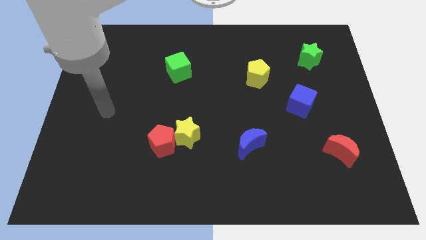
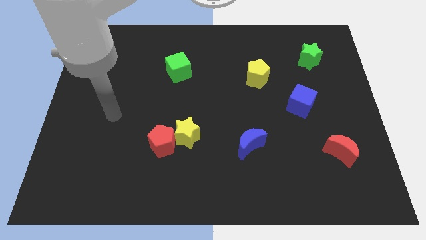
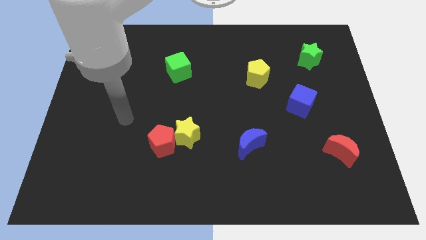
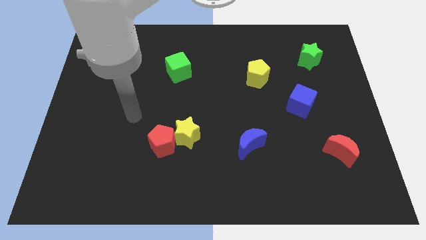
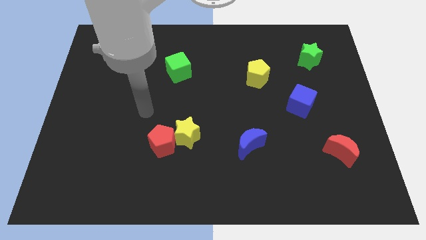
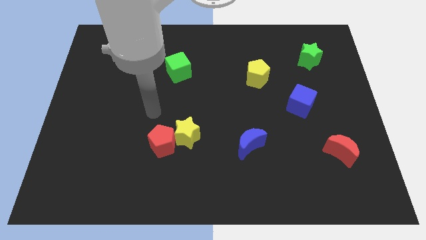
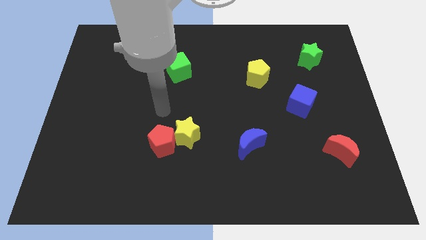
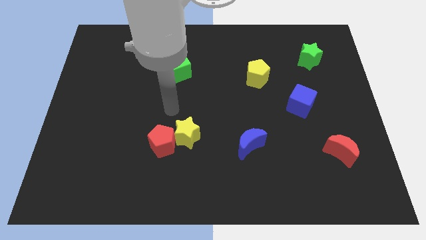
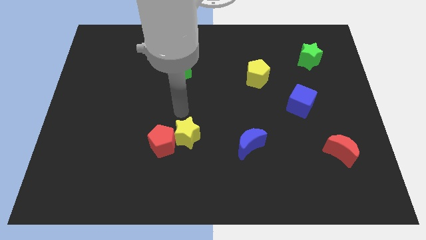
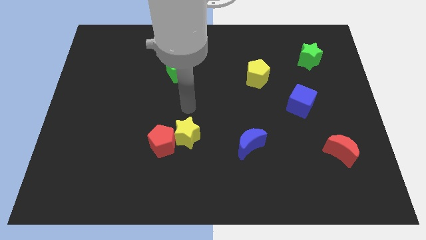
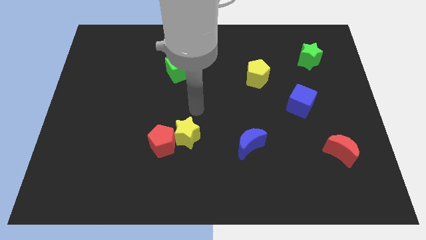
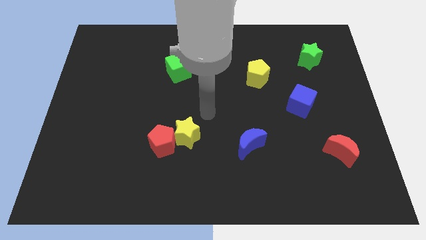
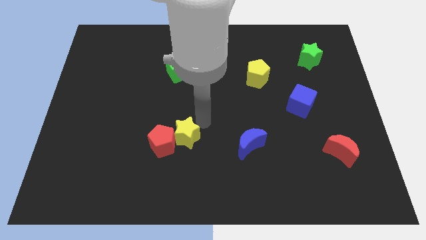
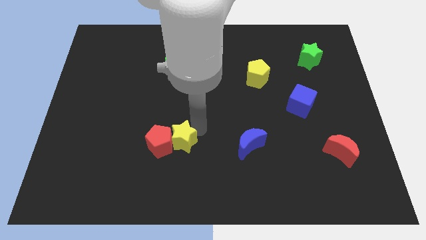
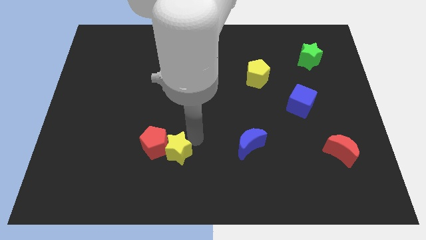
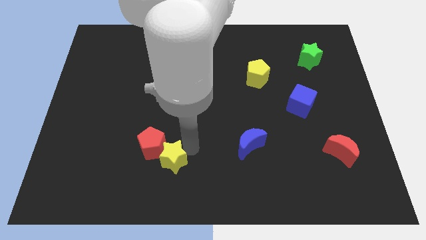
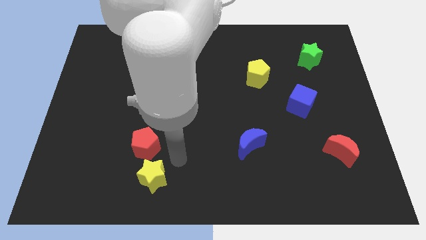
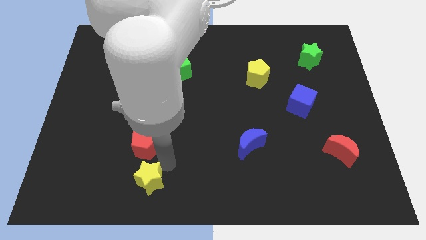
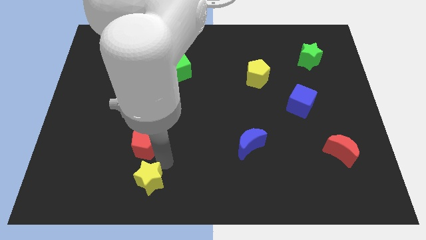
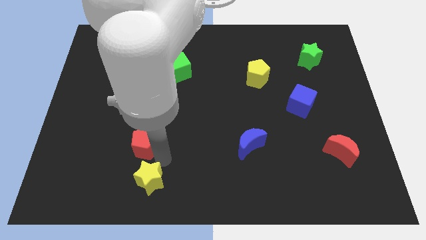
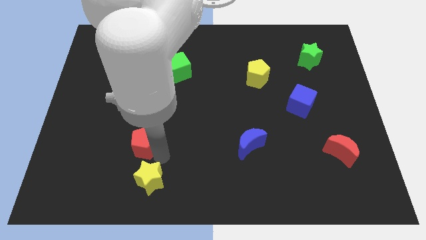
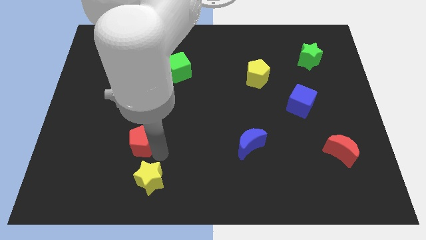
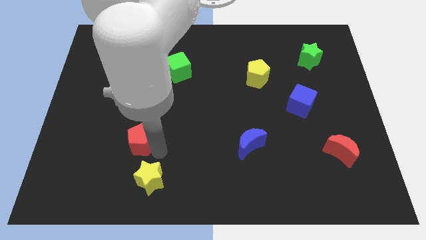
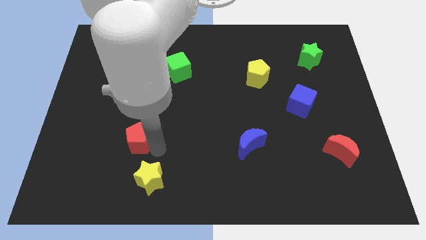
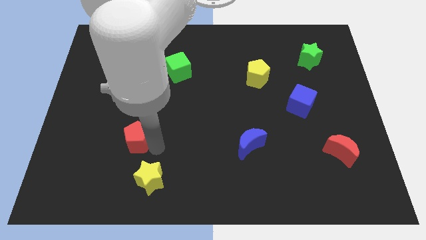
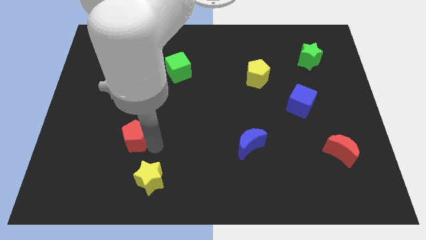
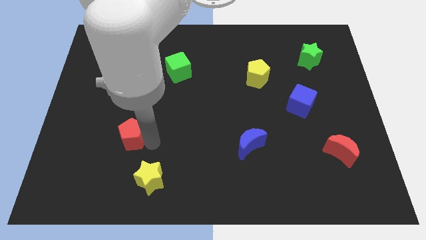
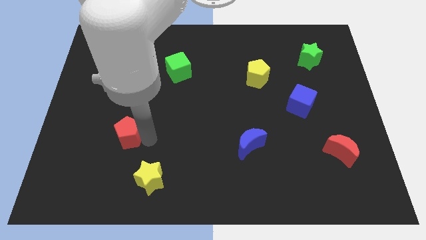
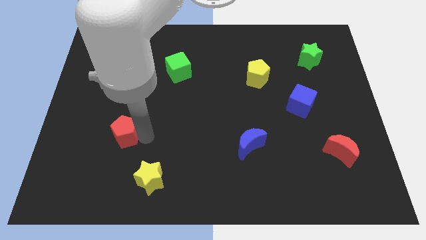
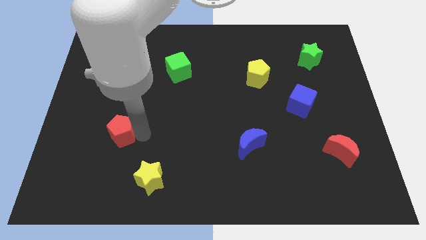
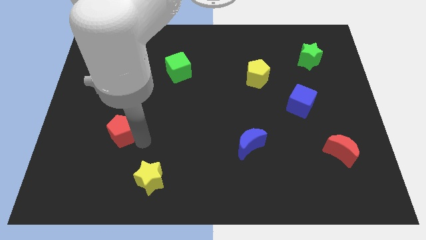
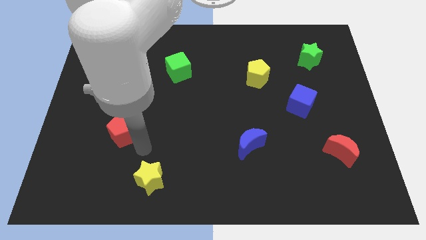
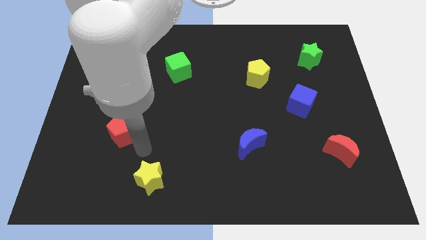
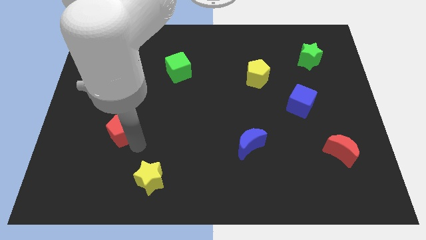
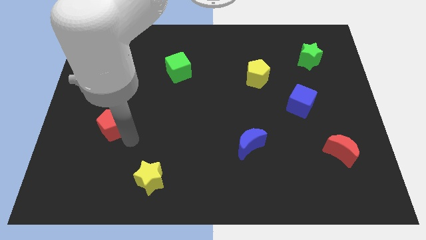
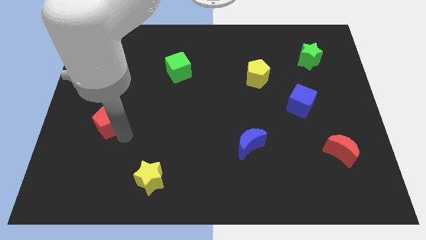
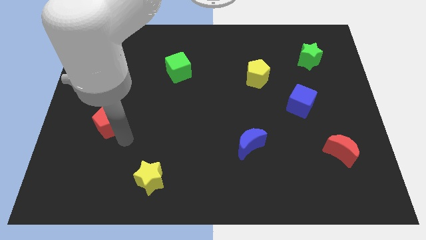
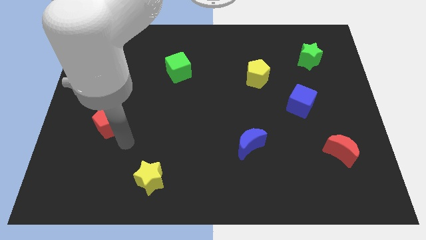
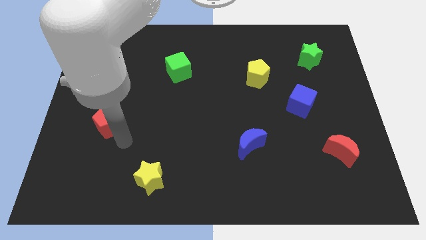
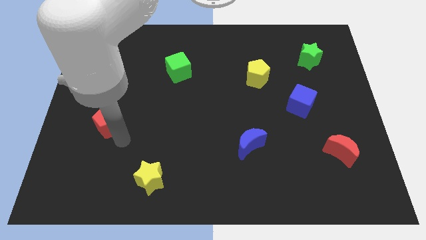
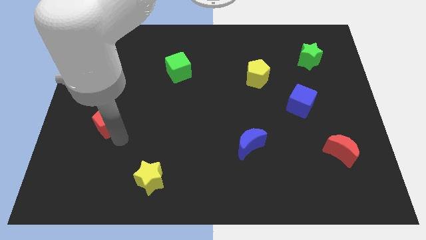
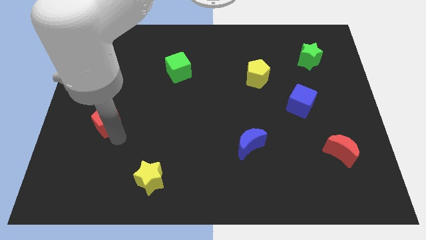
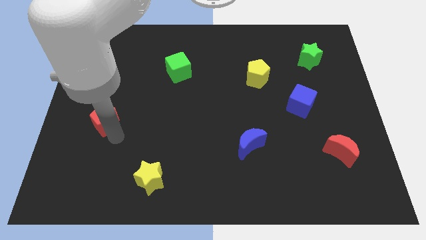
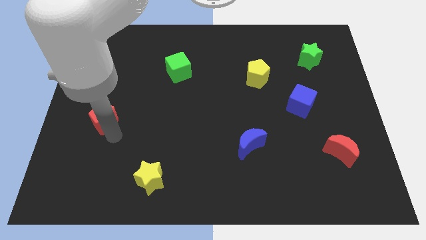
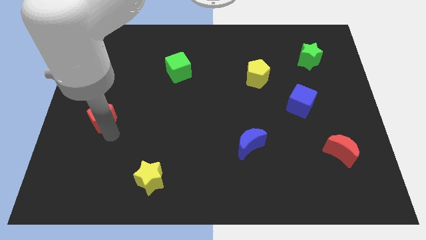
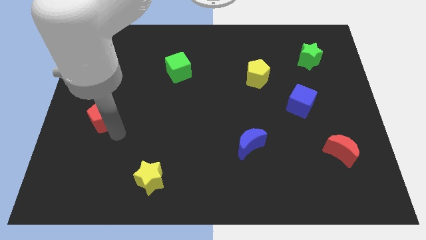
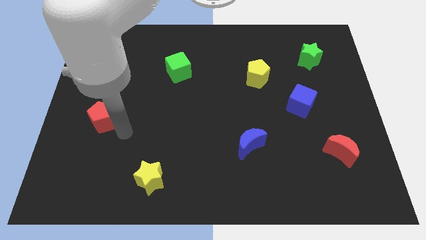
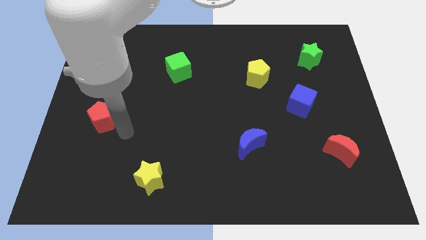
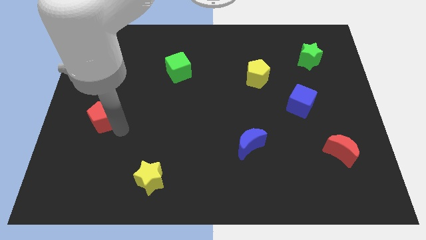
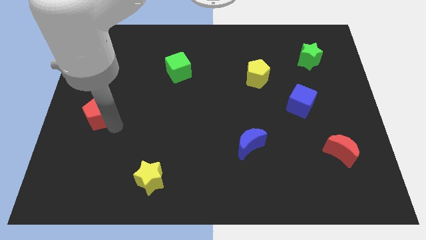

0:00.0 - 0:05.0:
push the red pentagon to the left side of the board

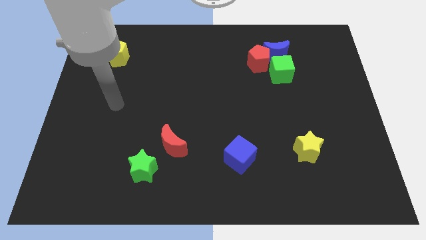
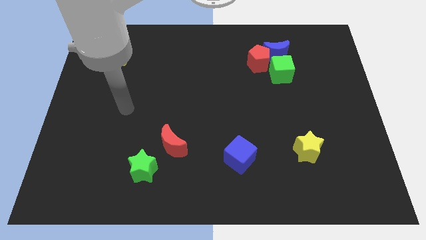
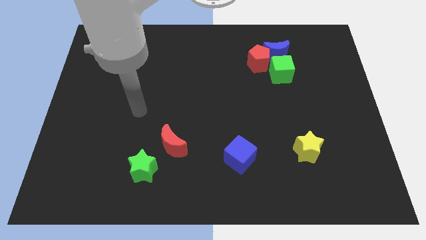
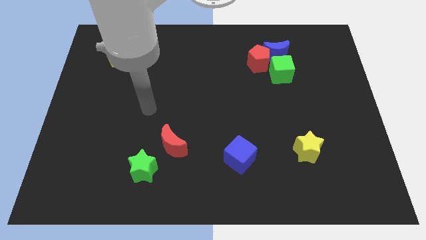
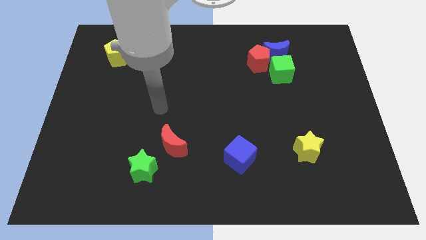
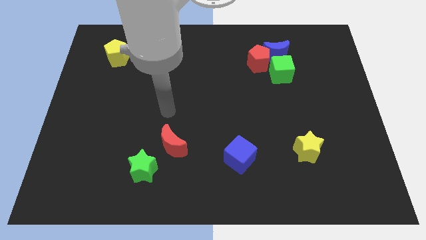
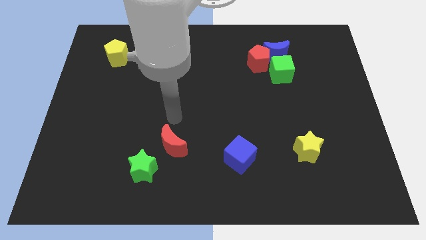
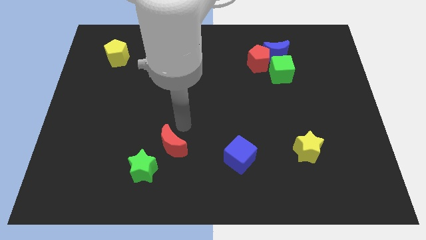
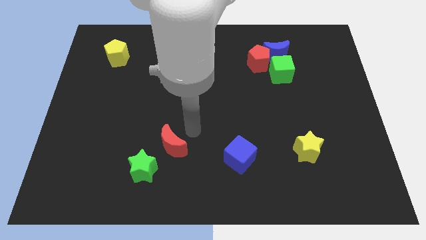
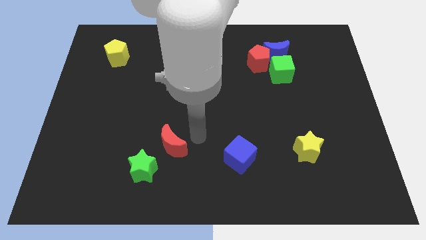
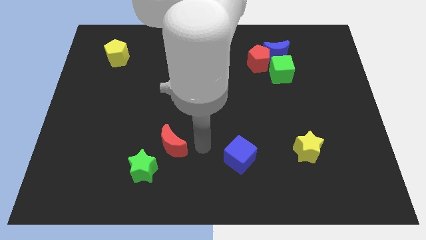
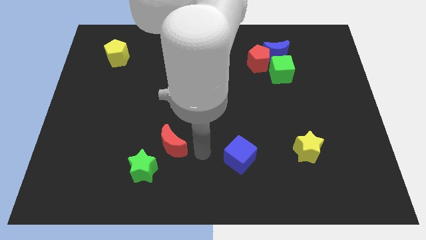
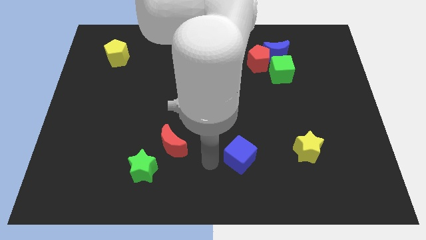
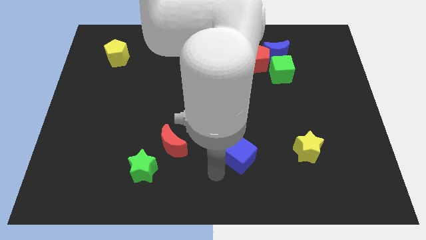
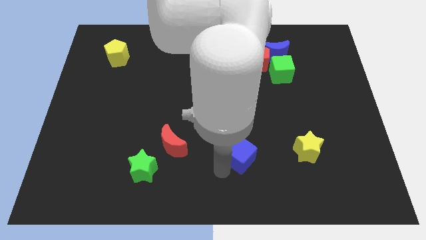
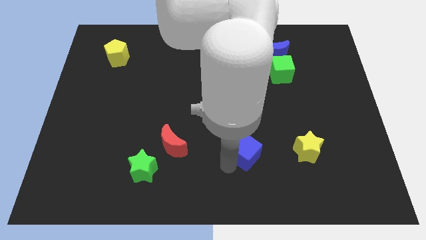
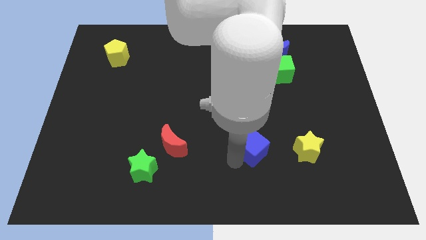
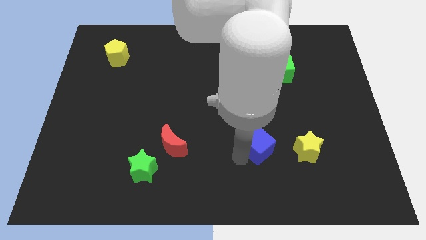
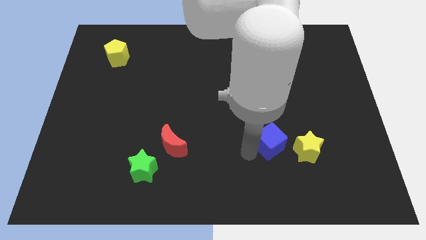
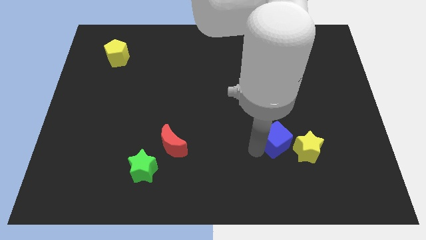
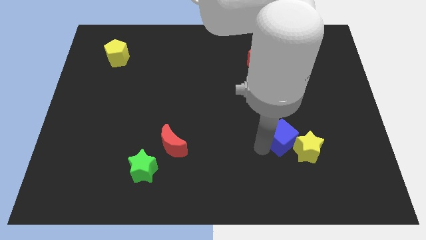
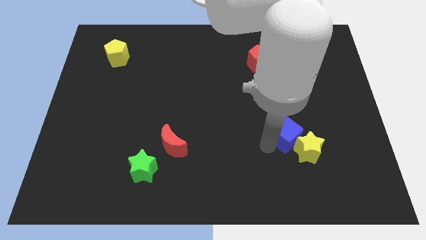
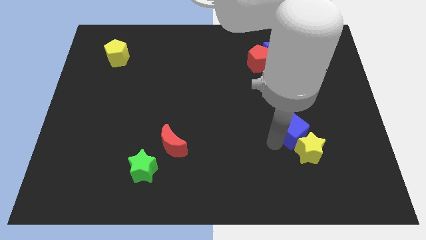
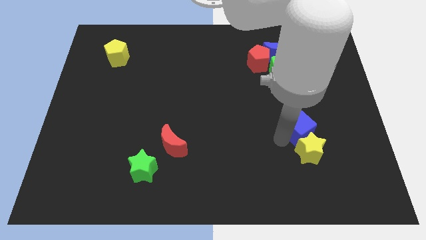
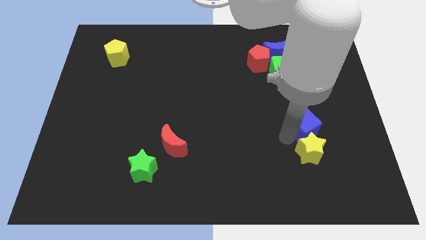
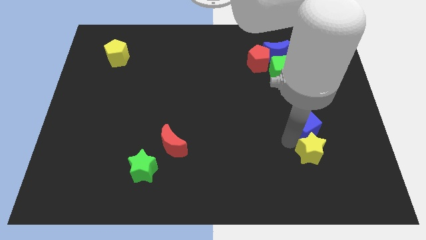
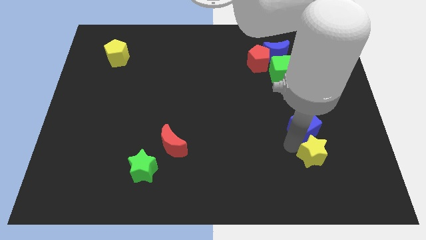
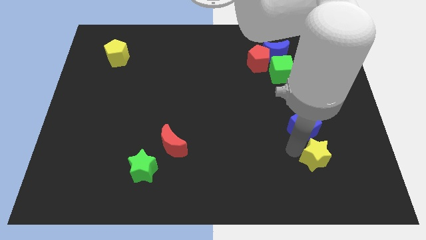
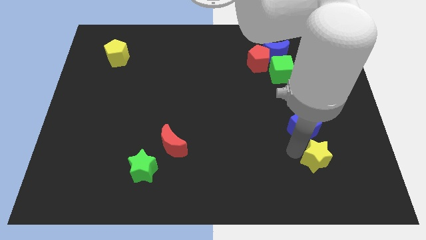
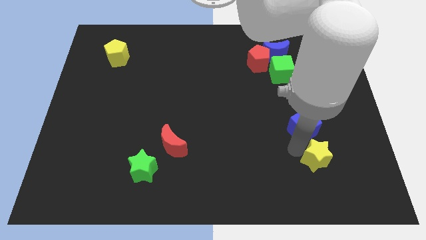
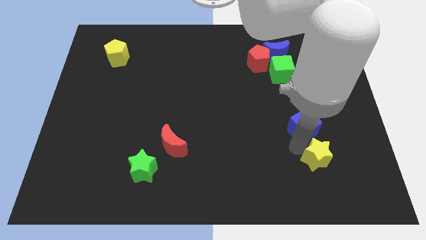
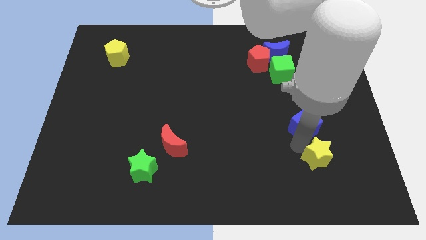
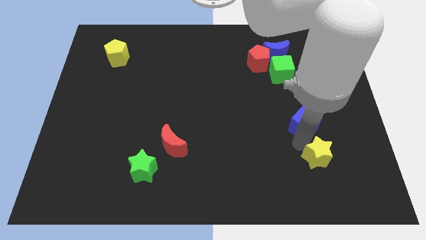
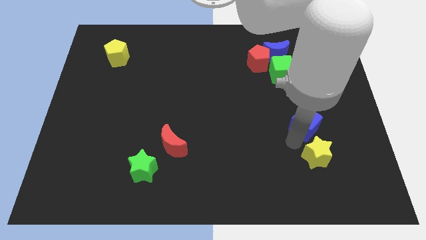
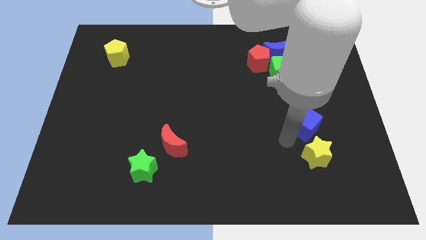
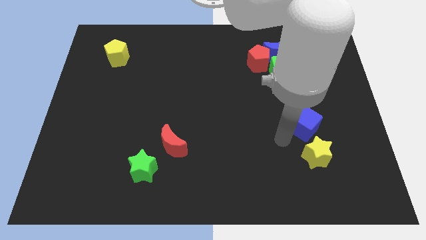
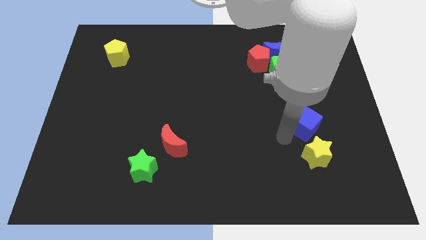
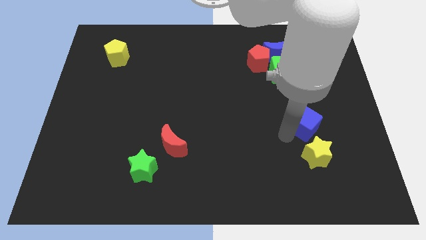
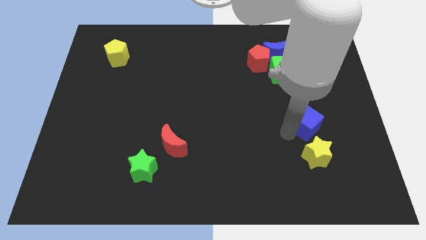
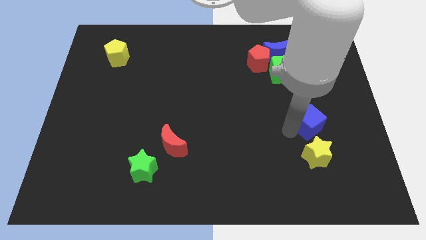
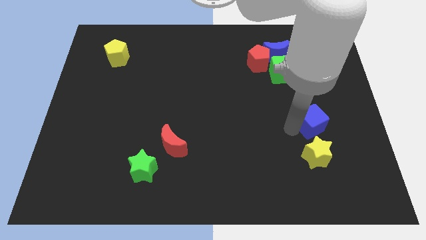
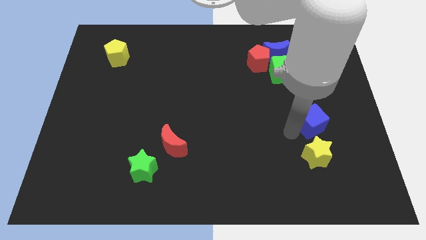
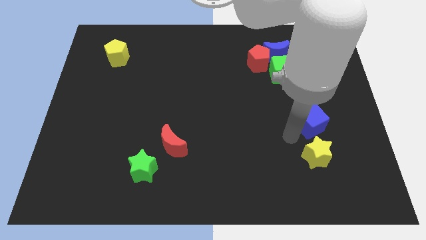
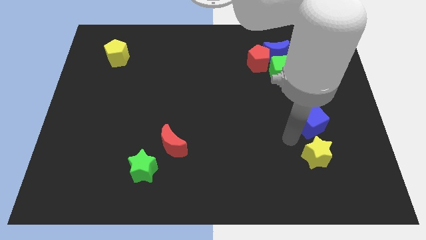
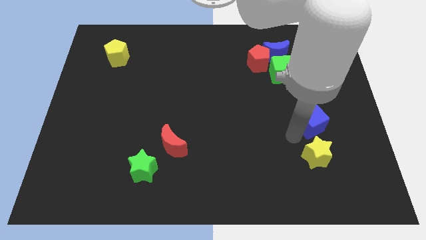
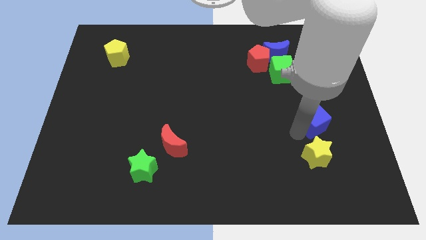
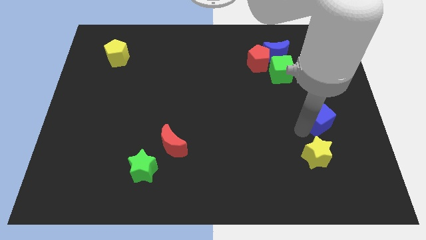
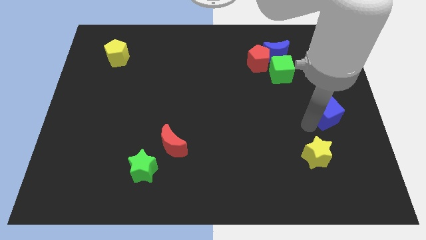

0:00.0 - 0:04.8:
push the blue cube to the right side of the board
